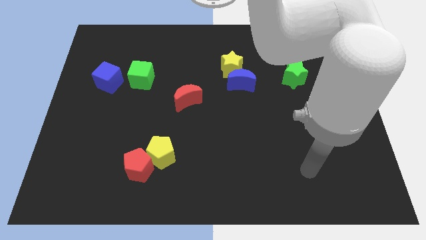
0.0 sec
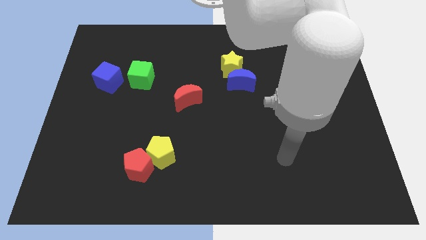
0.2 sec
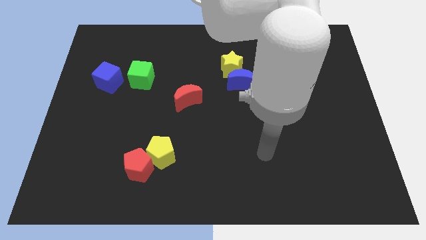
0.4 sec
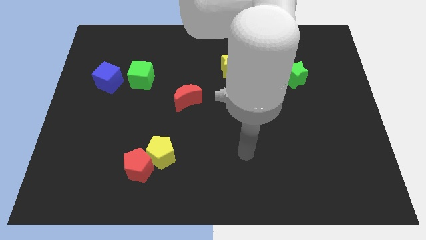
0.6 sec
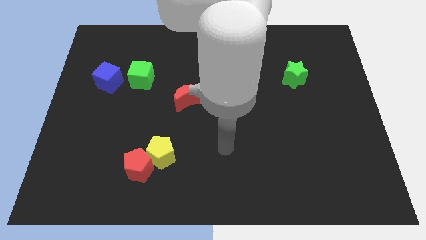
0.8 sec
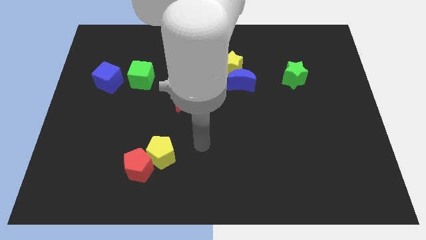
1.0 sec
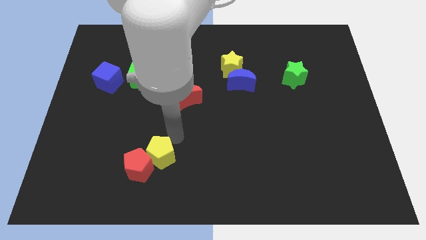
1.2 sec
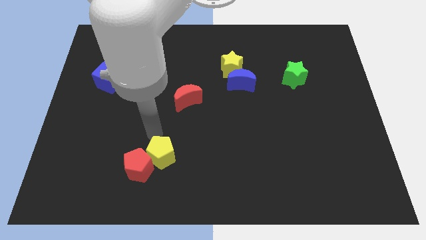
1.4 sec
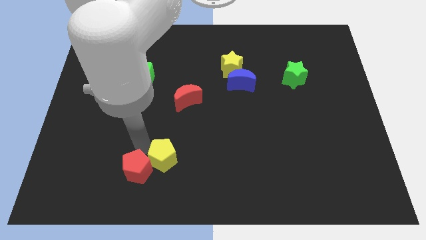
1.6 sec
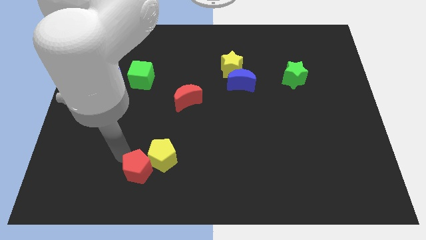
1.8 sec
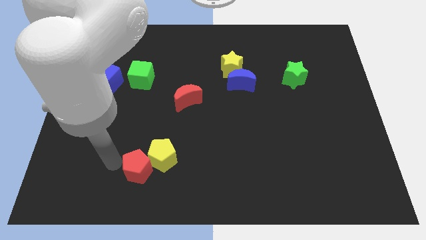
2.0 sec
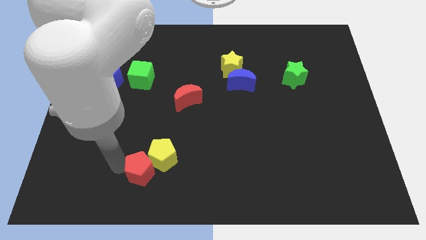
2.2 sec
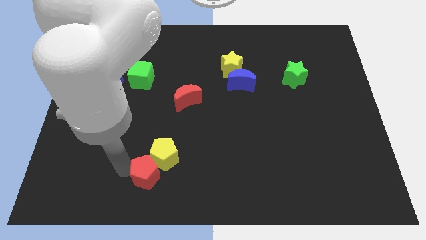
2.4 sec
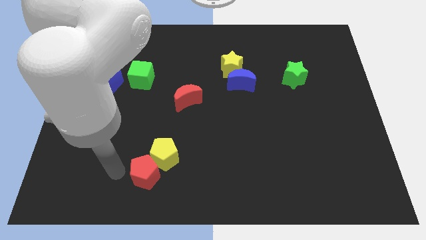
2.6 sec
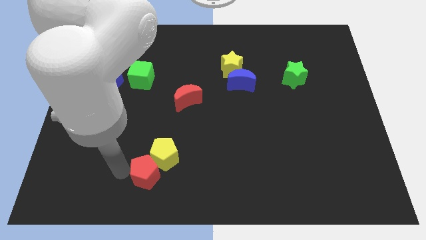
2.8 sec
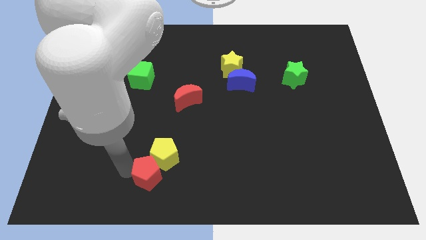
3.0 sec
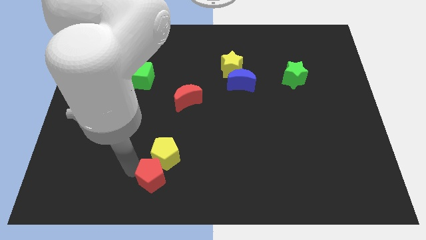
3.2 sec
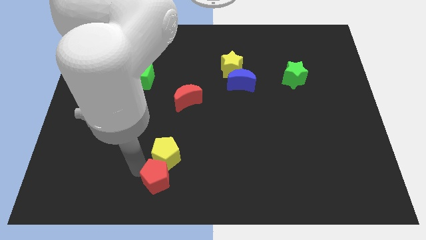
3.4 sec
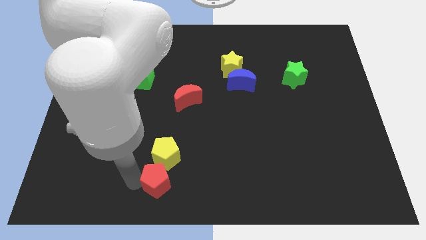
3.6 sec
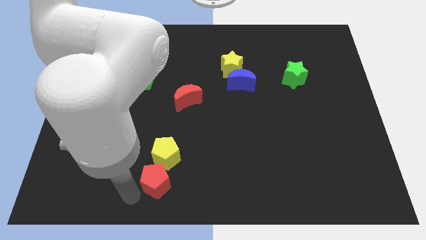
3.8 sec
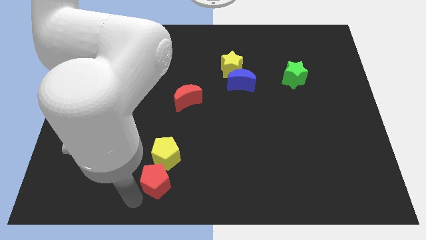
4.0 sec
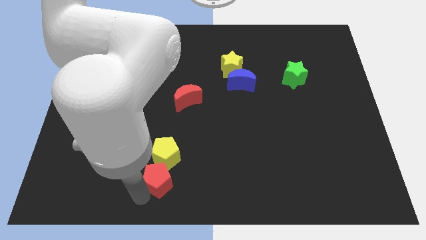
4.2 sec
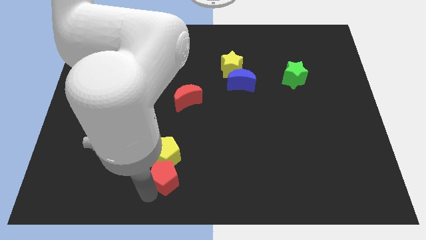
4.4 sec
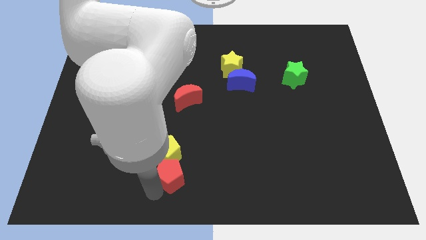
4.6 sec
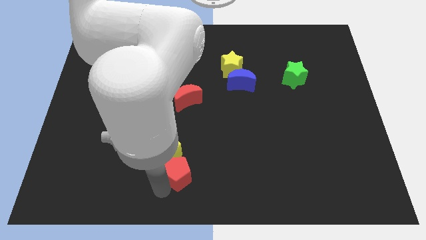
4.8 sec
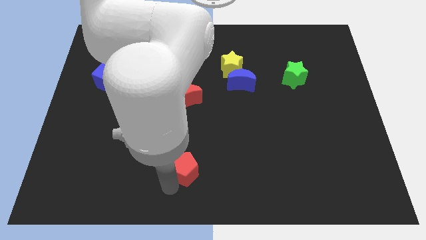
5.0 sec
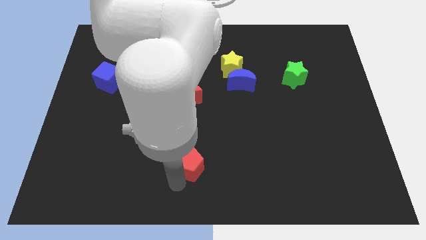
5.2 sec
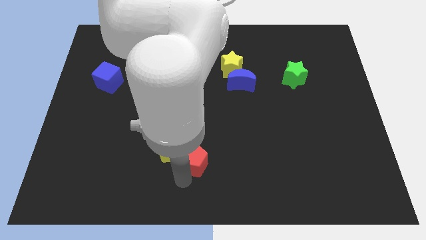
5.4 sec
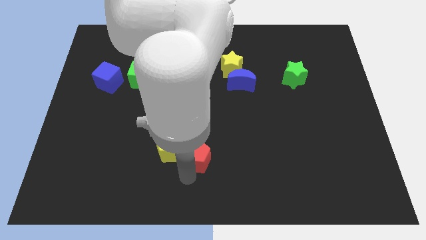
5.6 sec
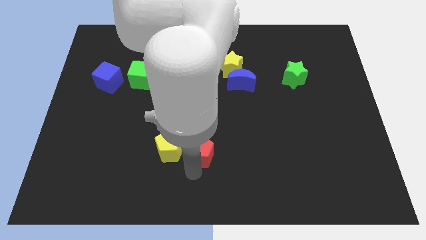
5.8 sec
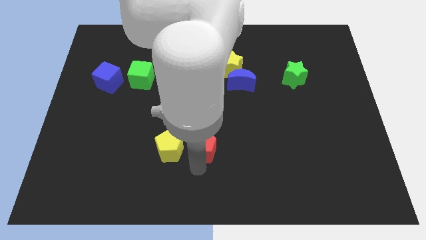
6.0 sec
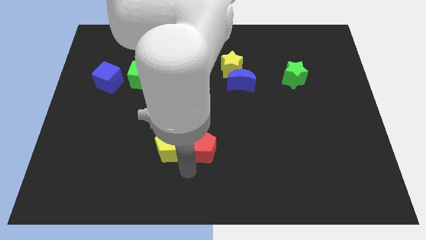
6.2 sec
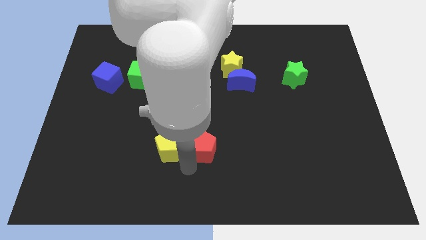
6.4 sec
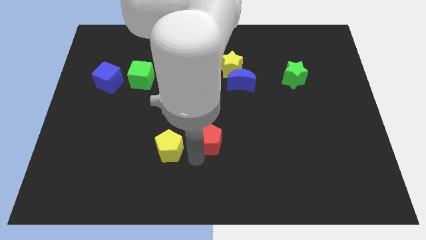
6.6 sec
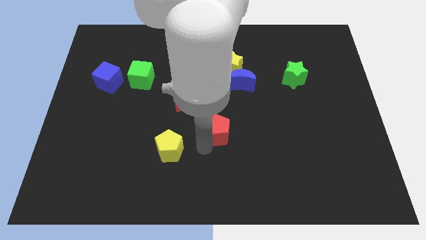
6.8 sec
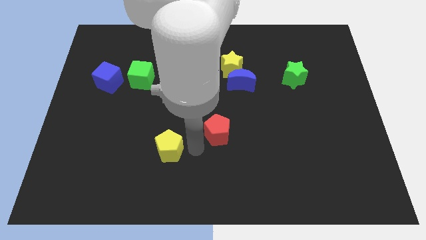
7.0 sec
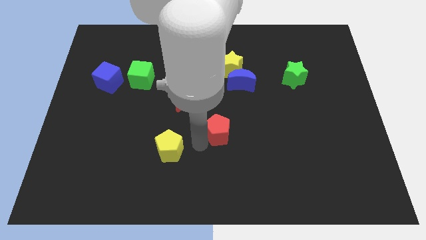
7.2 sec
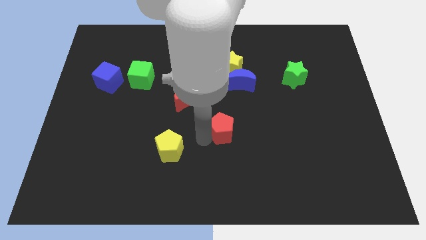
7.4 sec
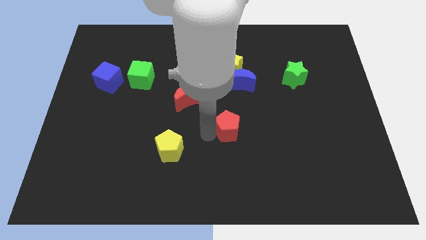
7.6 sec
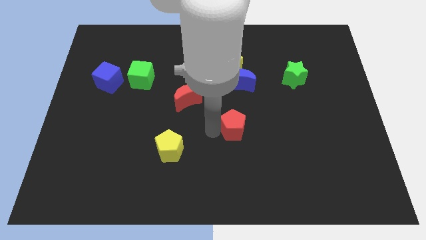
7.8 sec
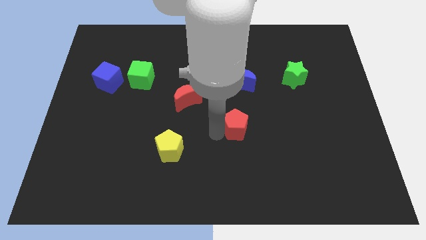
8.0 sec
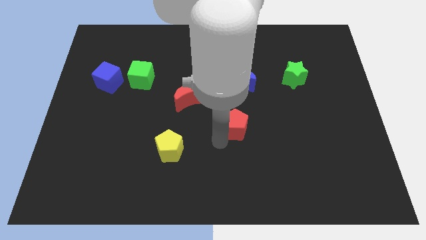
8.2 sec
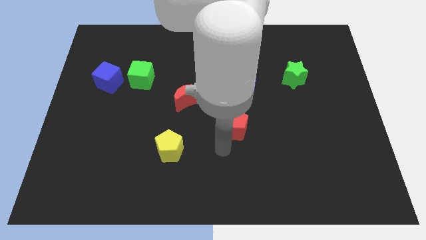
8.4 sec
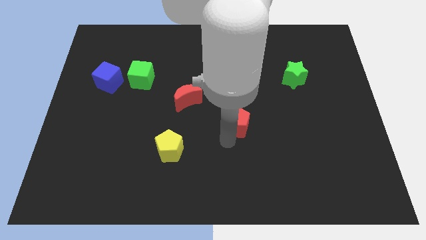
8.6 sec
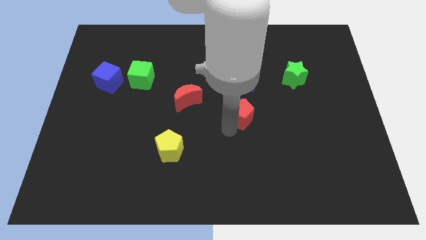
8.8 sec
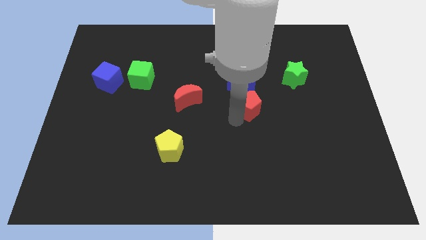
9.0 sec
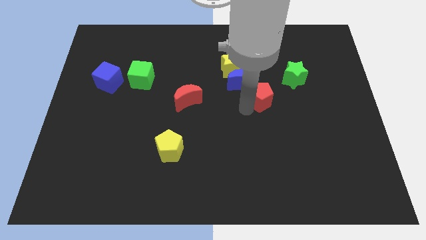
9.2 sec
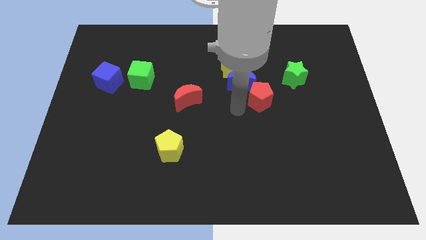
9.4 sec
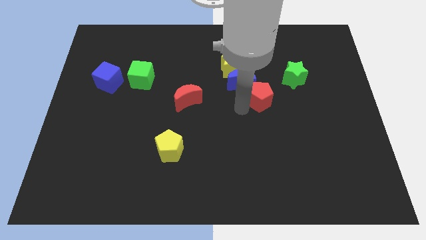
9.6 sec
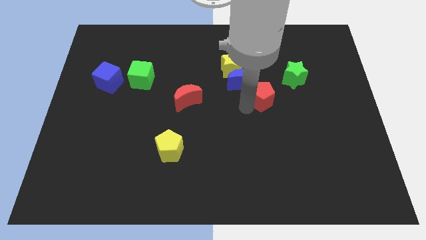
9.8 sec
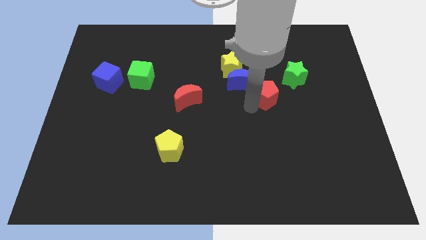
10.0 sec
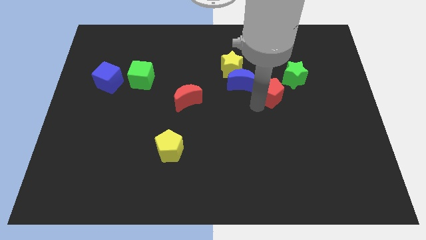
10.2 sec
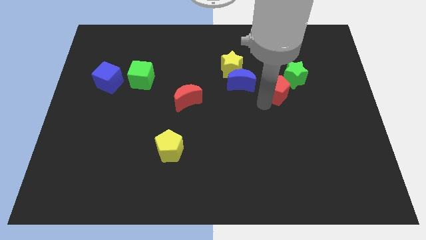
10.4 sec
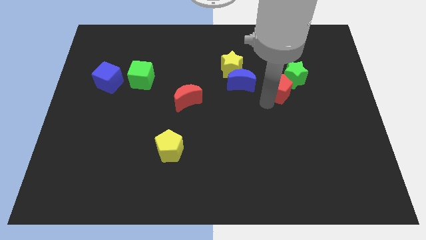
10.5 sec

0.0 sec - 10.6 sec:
push the red pentagon to the green star

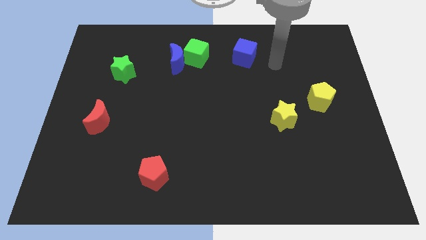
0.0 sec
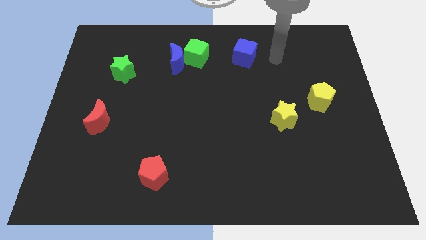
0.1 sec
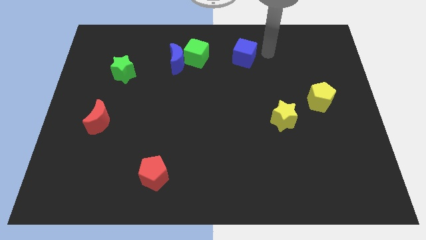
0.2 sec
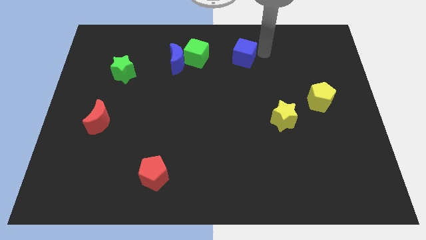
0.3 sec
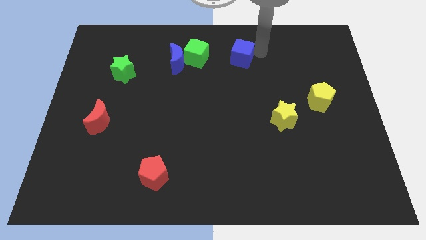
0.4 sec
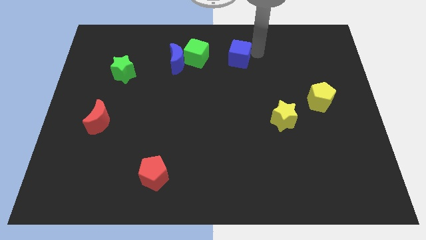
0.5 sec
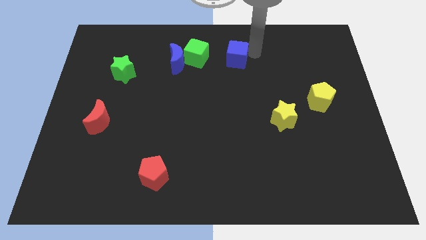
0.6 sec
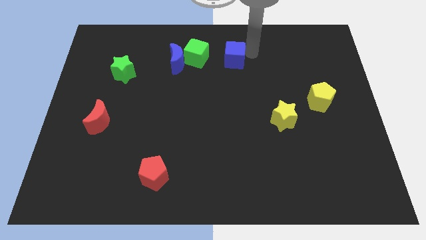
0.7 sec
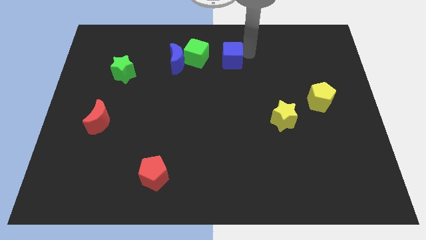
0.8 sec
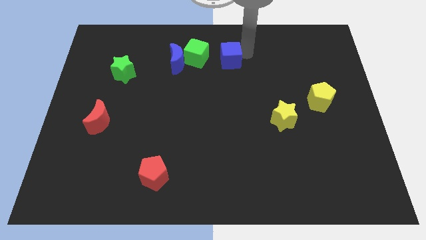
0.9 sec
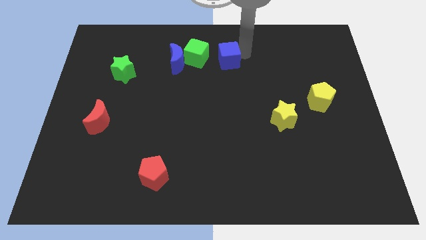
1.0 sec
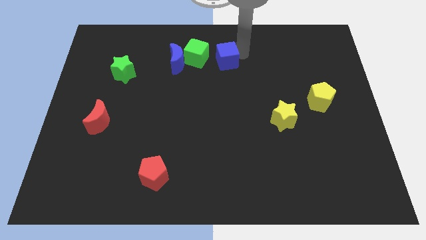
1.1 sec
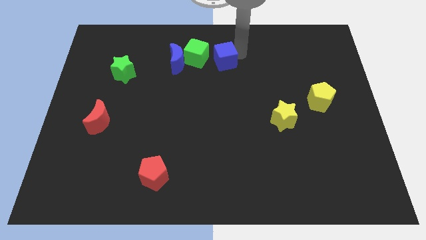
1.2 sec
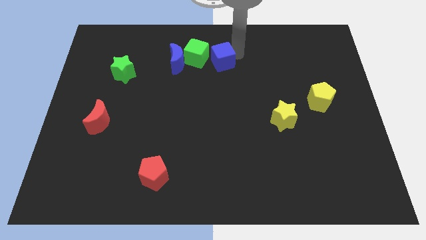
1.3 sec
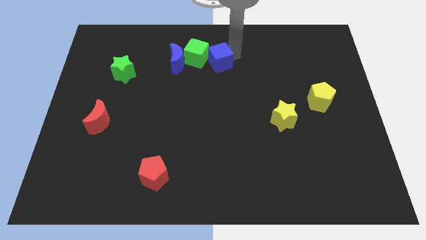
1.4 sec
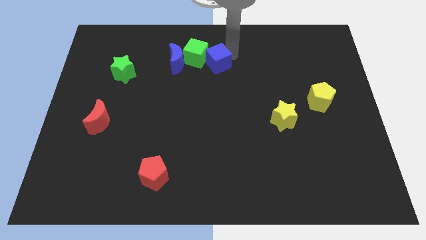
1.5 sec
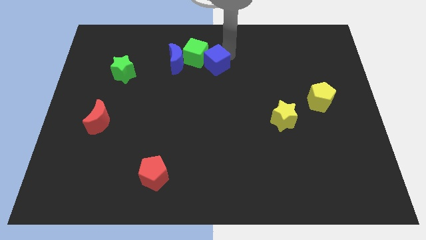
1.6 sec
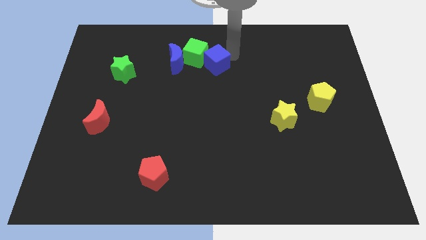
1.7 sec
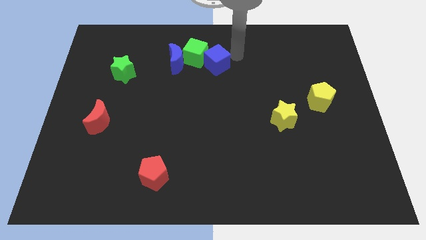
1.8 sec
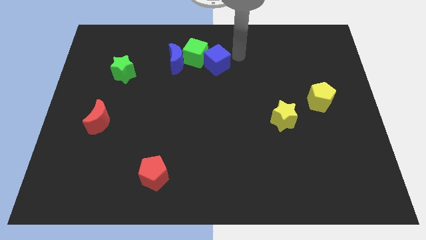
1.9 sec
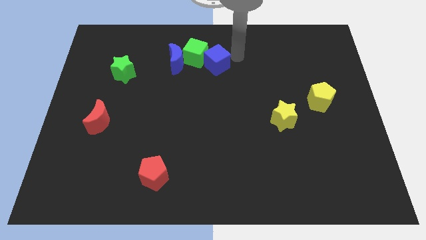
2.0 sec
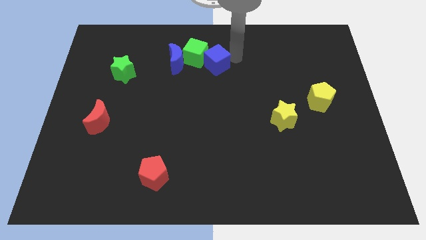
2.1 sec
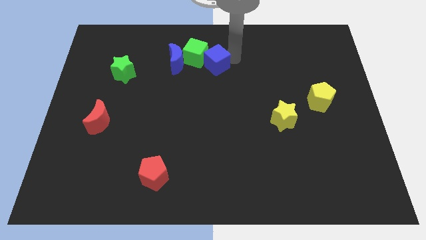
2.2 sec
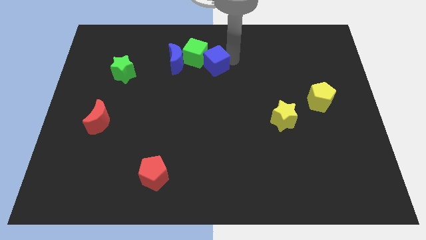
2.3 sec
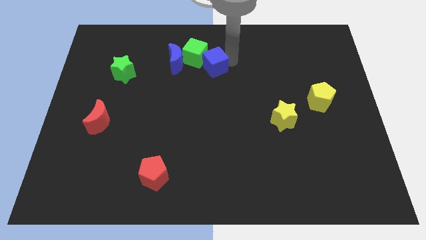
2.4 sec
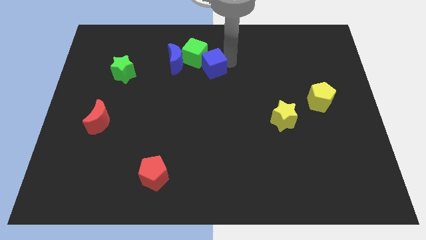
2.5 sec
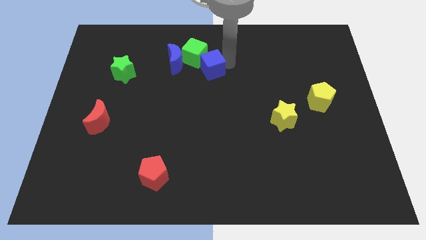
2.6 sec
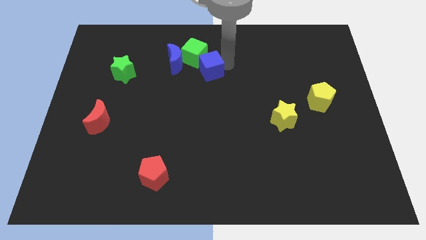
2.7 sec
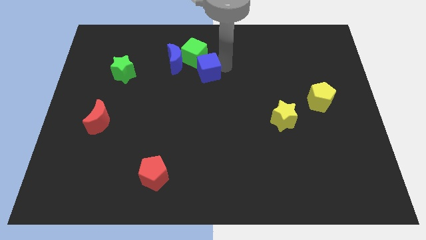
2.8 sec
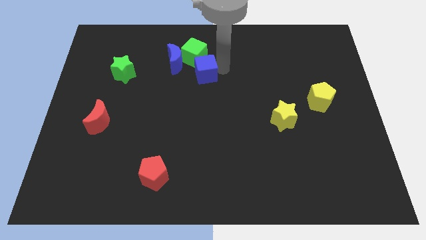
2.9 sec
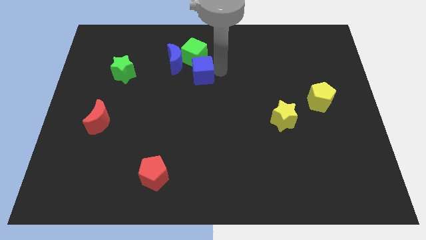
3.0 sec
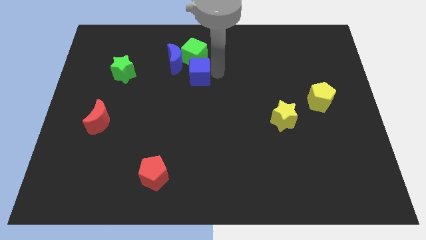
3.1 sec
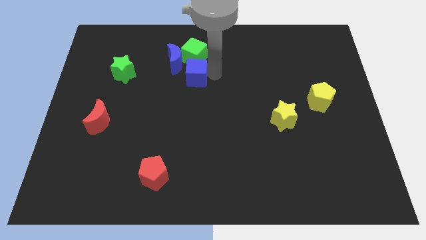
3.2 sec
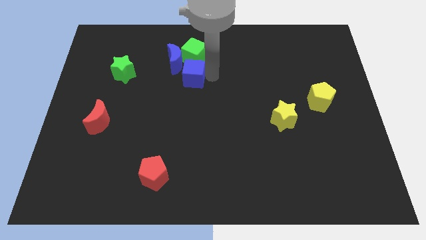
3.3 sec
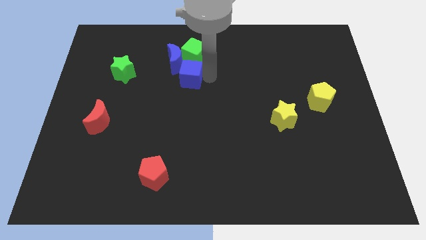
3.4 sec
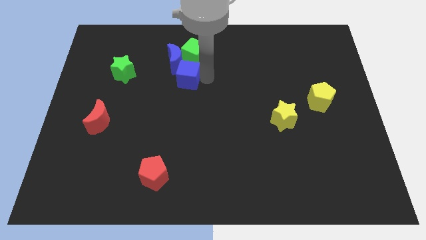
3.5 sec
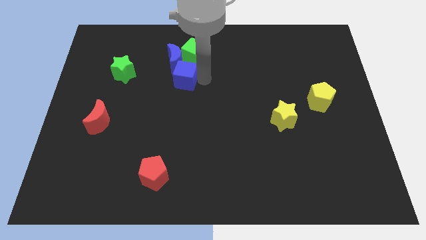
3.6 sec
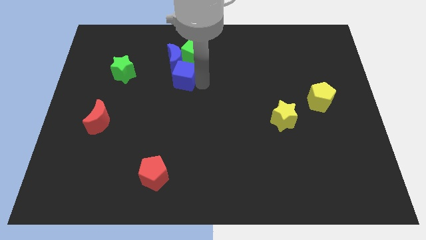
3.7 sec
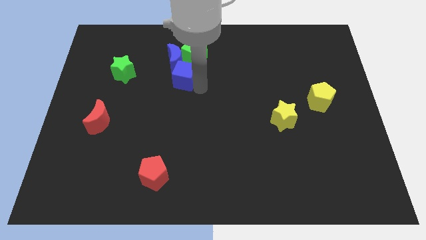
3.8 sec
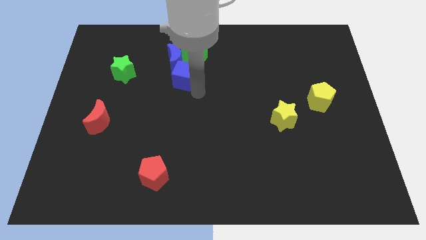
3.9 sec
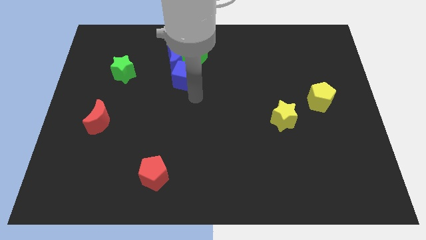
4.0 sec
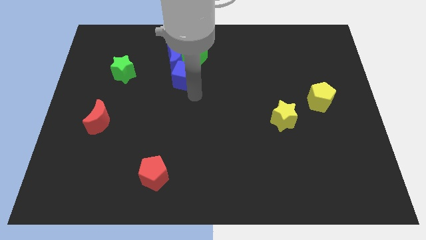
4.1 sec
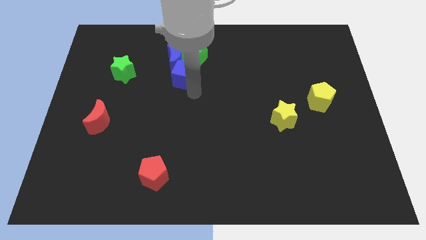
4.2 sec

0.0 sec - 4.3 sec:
slide the blue cube to the blue moon
